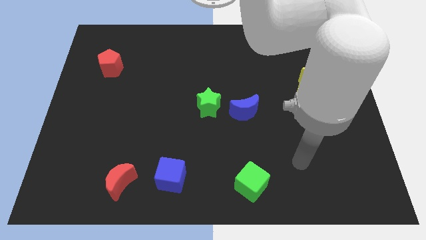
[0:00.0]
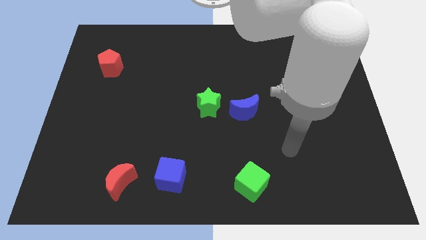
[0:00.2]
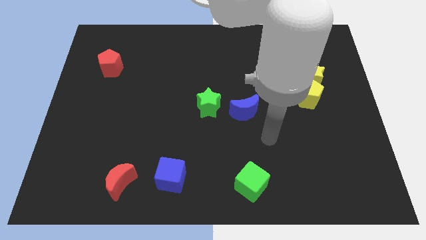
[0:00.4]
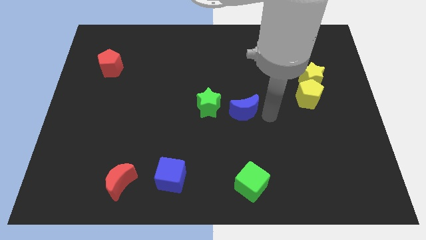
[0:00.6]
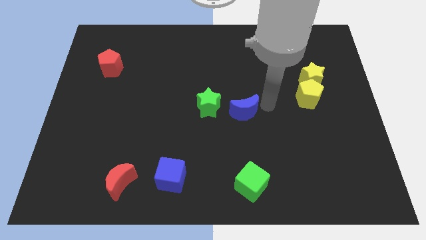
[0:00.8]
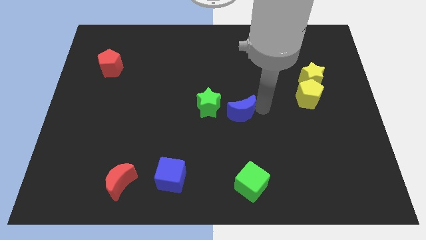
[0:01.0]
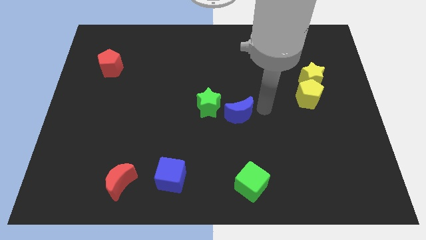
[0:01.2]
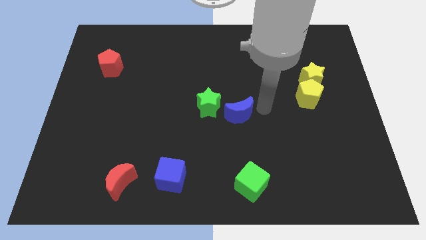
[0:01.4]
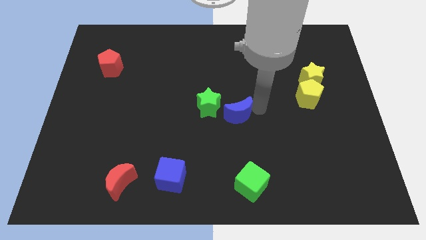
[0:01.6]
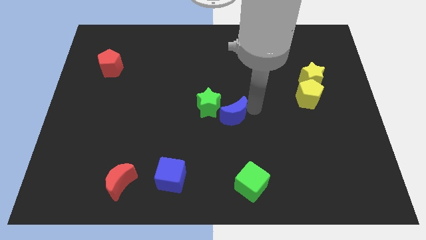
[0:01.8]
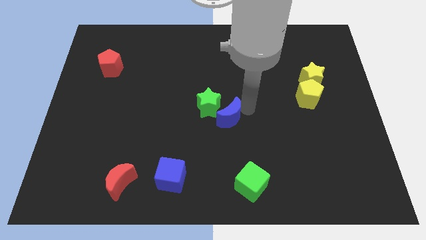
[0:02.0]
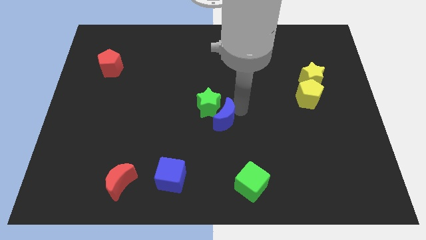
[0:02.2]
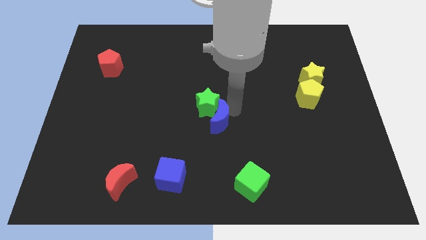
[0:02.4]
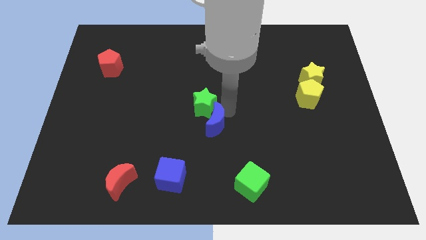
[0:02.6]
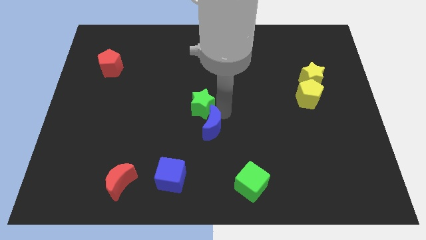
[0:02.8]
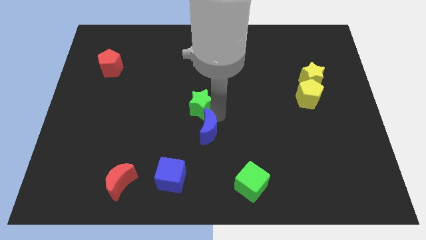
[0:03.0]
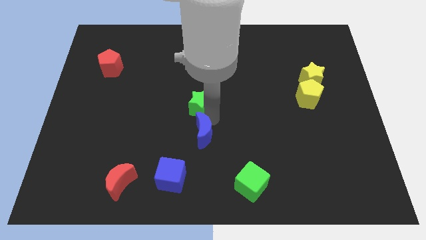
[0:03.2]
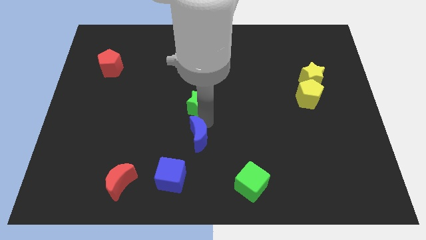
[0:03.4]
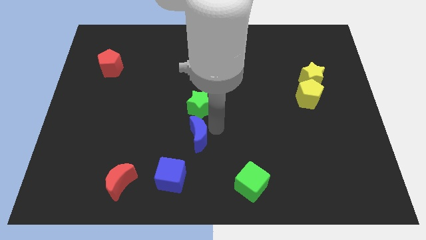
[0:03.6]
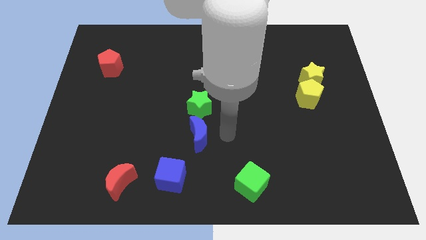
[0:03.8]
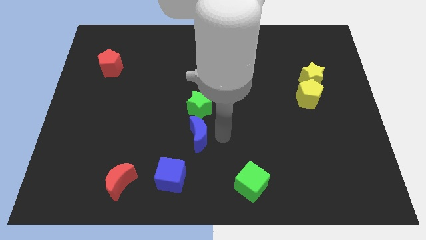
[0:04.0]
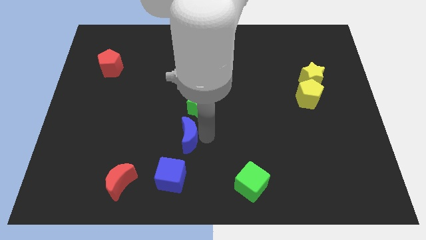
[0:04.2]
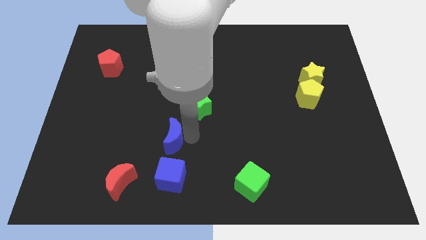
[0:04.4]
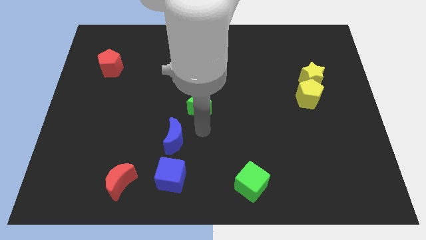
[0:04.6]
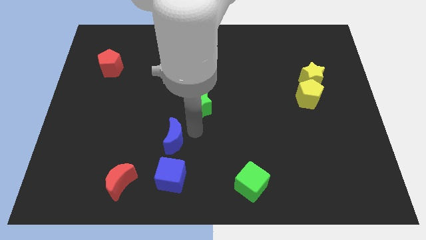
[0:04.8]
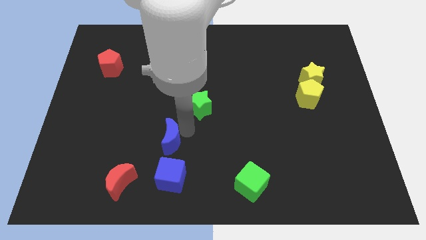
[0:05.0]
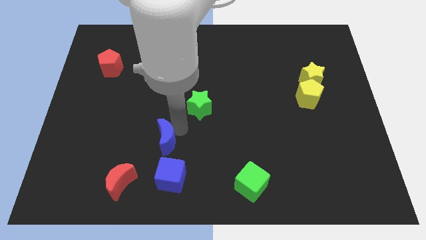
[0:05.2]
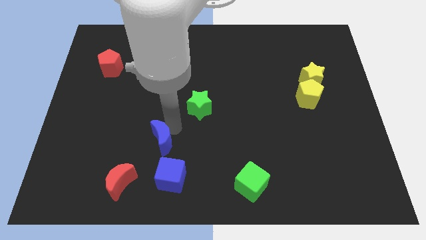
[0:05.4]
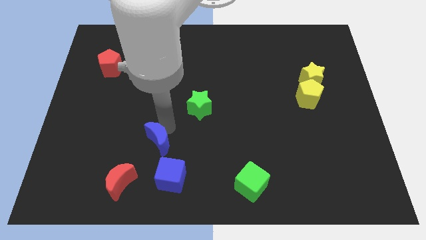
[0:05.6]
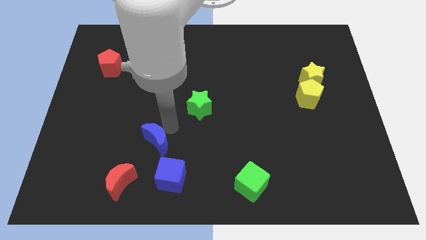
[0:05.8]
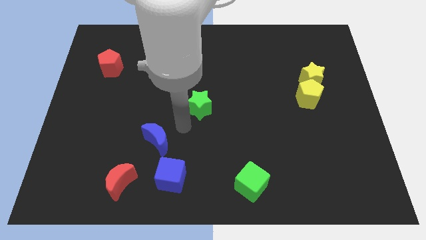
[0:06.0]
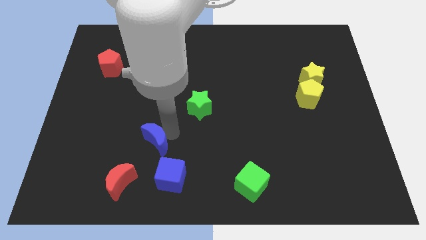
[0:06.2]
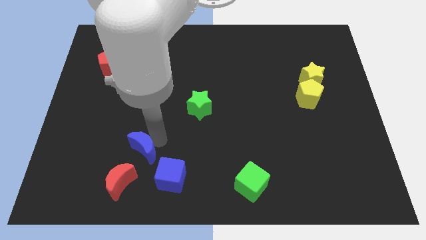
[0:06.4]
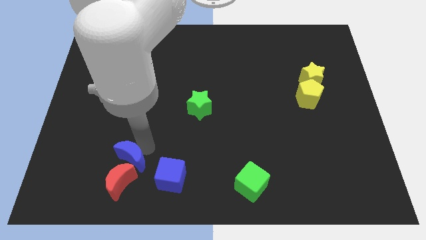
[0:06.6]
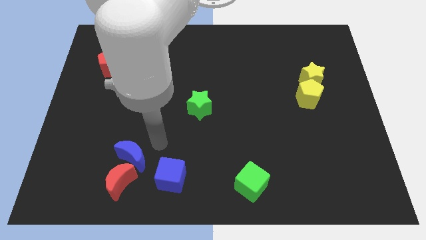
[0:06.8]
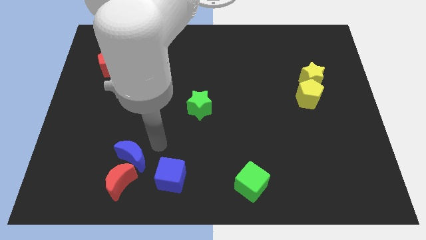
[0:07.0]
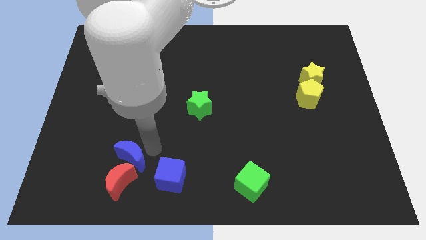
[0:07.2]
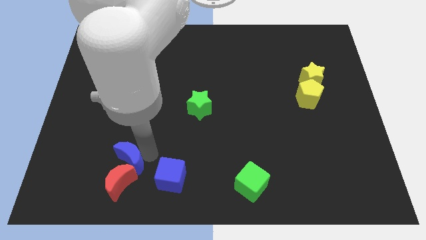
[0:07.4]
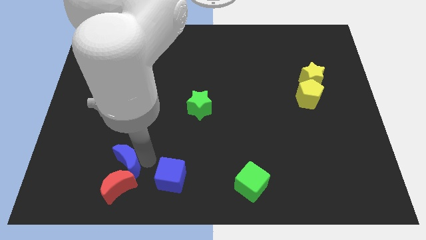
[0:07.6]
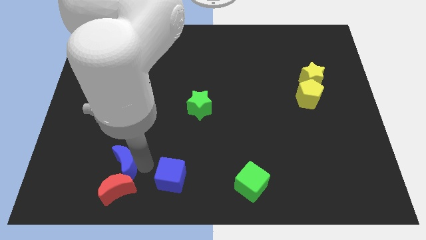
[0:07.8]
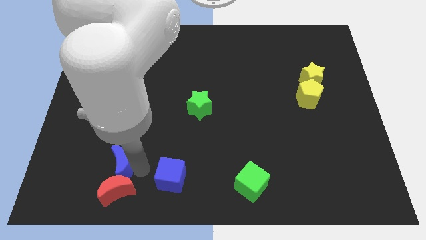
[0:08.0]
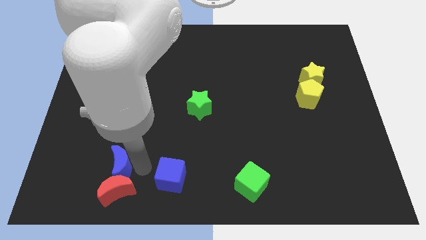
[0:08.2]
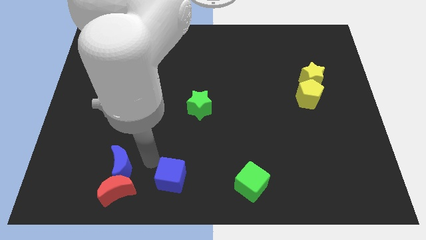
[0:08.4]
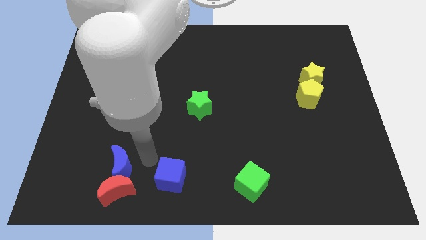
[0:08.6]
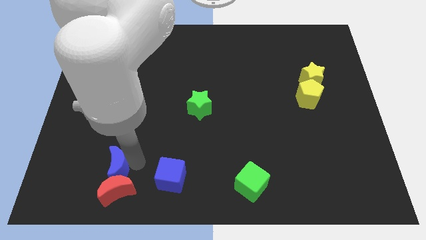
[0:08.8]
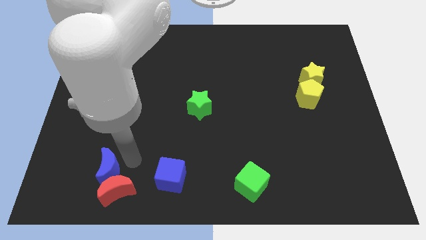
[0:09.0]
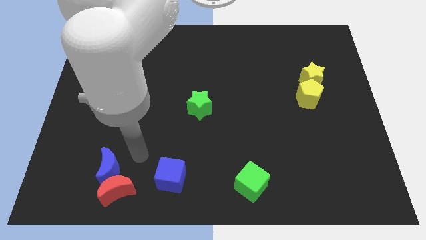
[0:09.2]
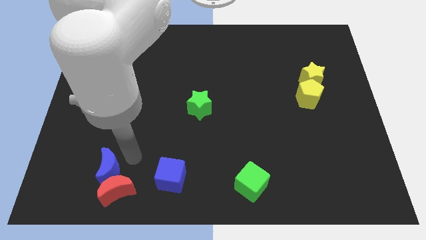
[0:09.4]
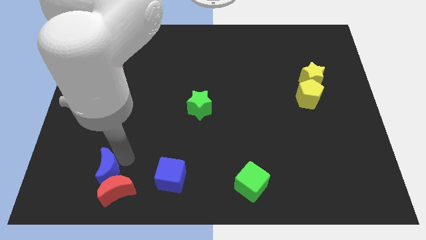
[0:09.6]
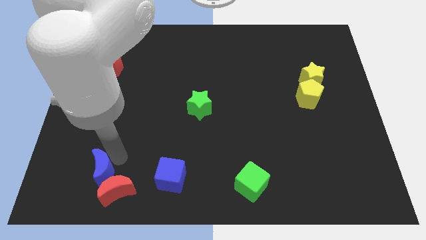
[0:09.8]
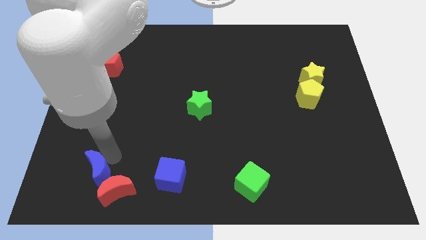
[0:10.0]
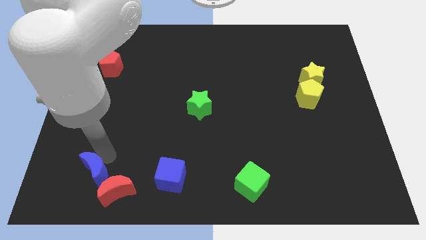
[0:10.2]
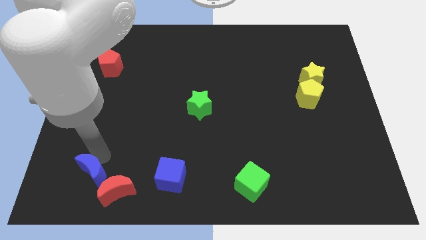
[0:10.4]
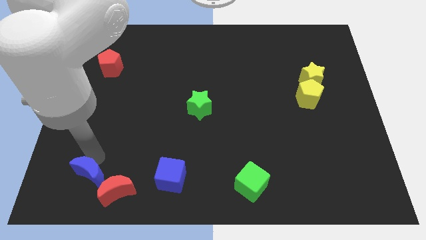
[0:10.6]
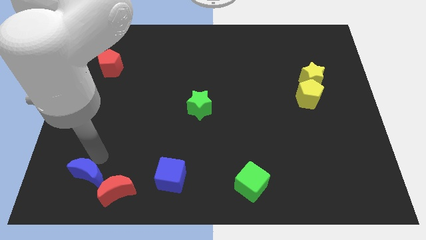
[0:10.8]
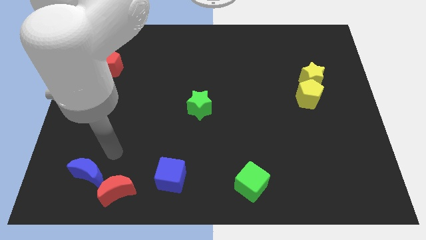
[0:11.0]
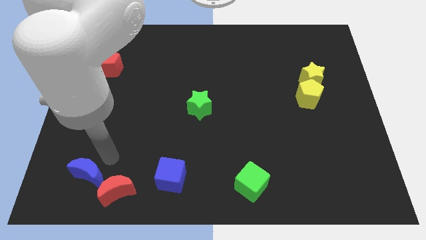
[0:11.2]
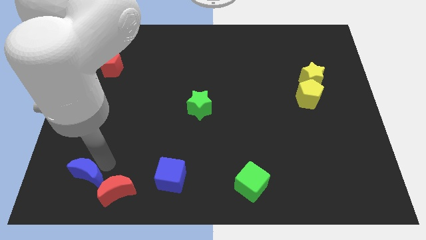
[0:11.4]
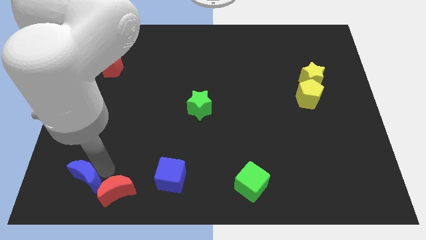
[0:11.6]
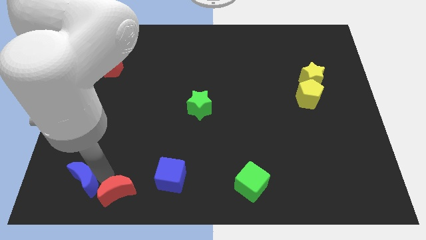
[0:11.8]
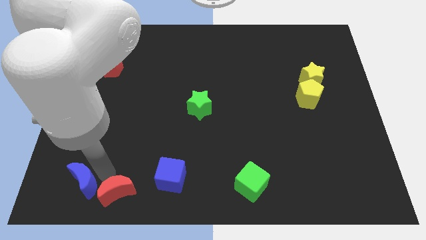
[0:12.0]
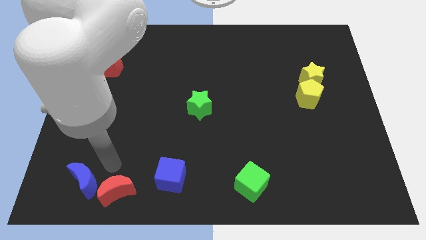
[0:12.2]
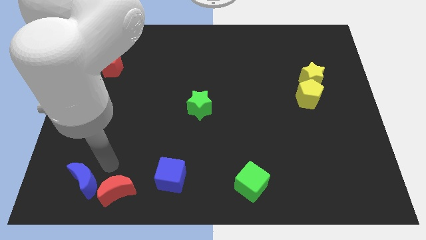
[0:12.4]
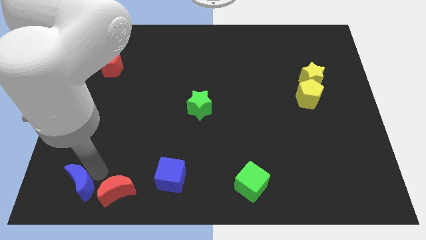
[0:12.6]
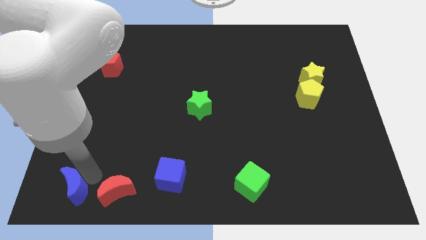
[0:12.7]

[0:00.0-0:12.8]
move the blue moon to the bottom left

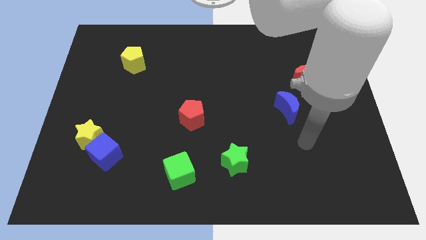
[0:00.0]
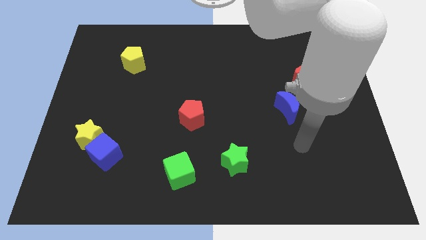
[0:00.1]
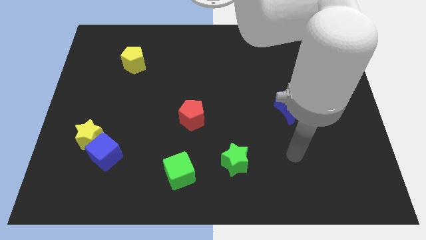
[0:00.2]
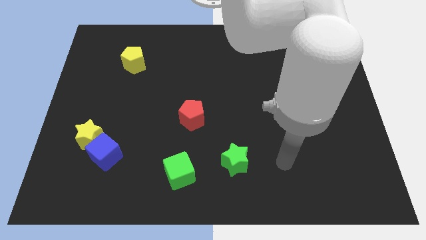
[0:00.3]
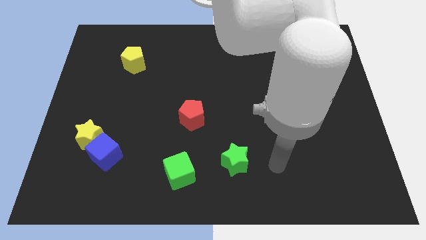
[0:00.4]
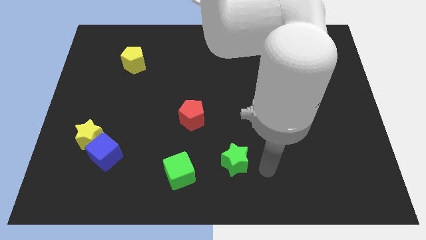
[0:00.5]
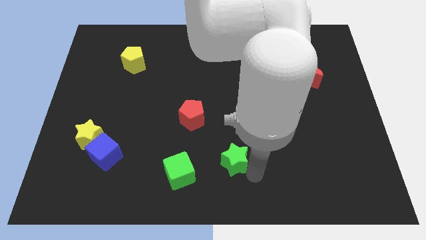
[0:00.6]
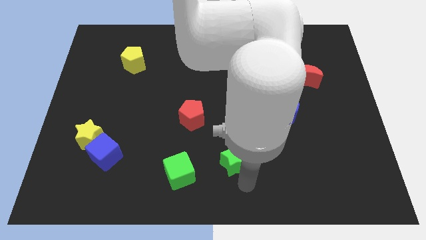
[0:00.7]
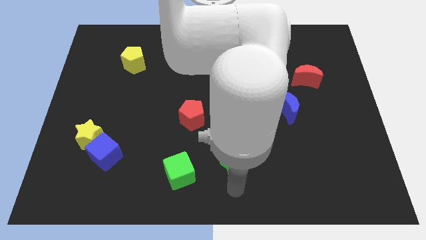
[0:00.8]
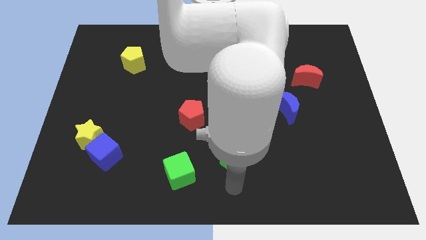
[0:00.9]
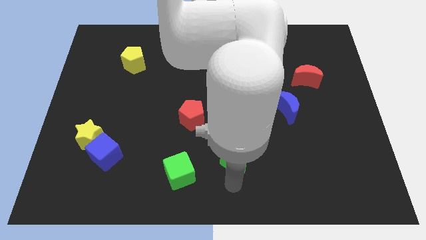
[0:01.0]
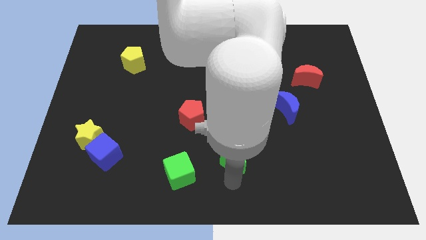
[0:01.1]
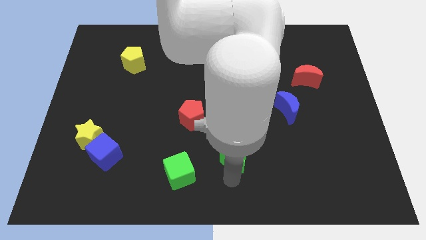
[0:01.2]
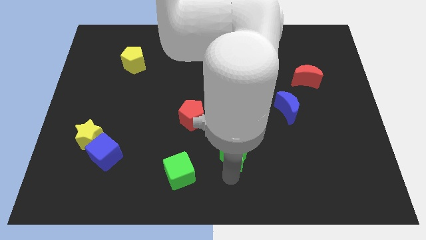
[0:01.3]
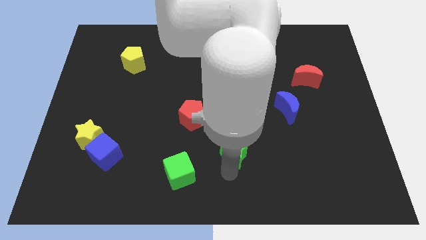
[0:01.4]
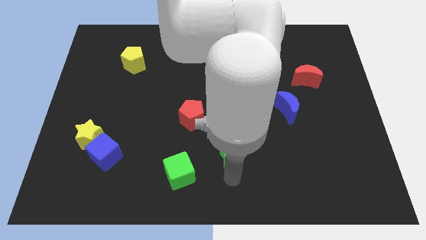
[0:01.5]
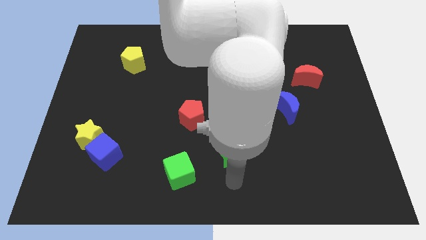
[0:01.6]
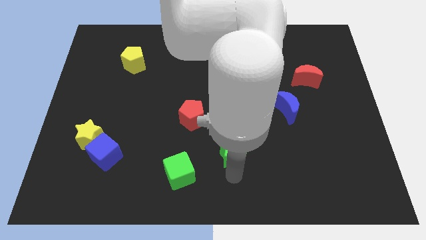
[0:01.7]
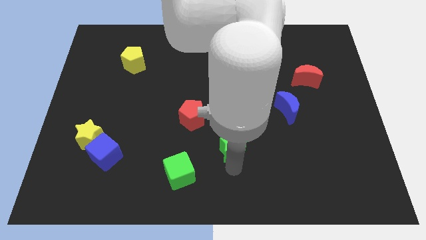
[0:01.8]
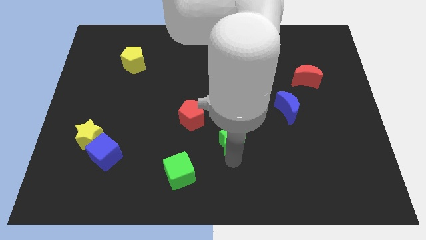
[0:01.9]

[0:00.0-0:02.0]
slide the green star to the center of the board
